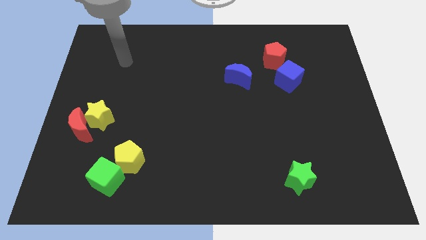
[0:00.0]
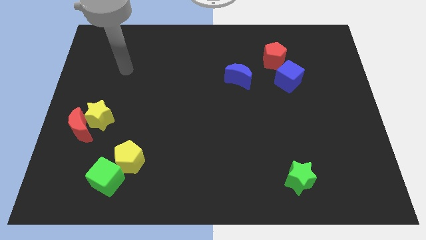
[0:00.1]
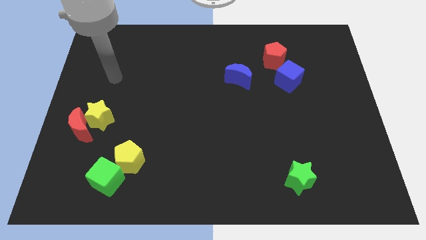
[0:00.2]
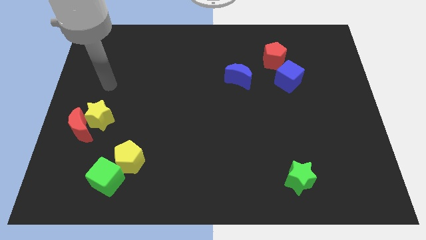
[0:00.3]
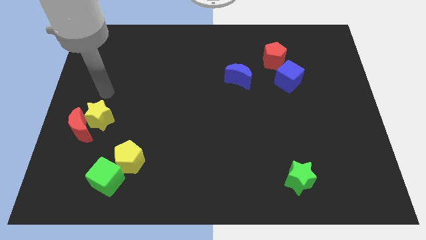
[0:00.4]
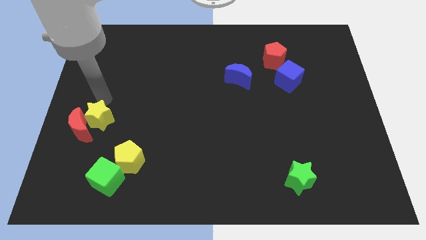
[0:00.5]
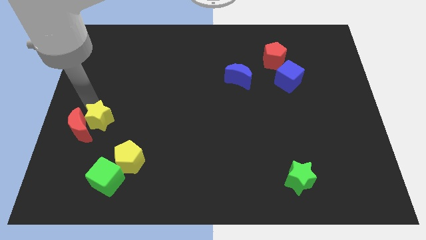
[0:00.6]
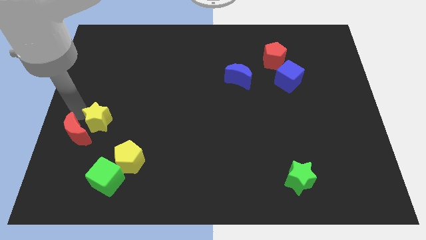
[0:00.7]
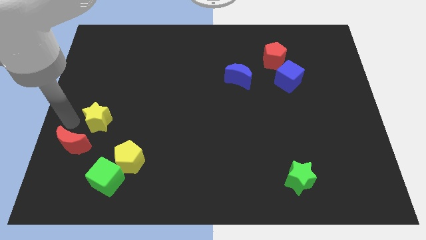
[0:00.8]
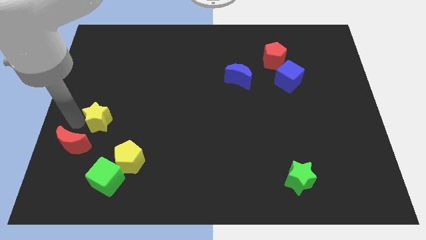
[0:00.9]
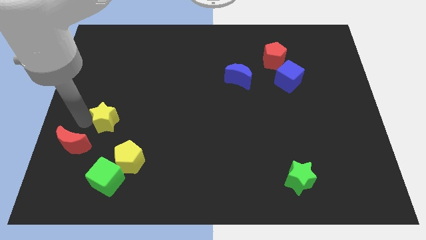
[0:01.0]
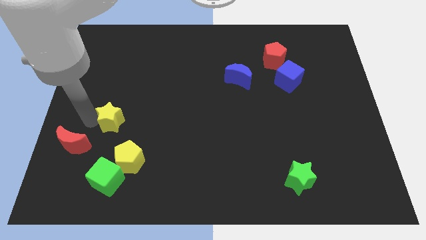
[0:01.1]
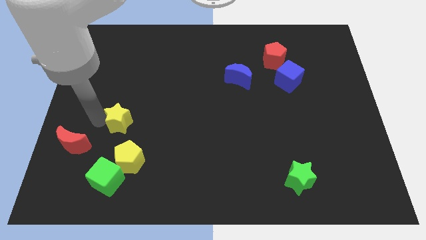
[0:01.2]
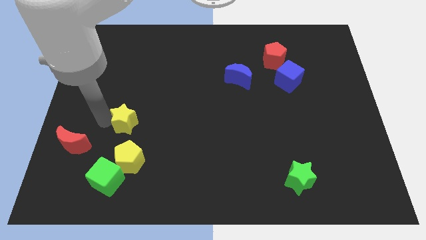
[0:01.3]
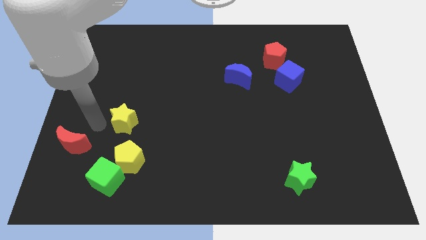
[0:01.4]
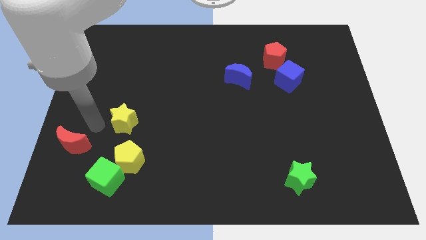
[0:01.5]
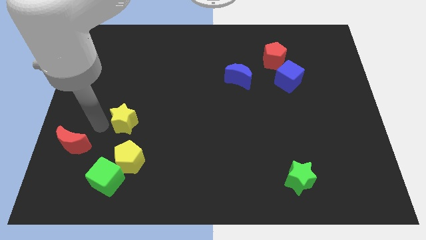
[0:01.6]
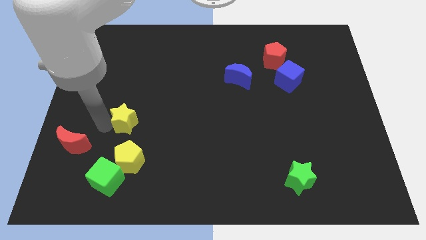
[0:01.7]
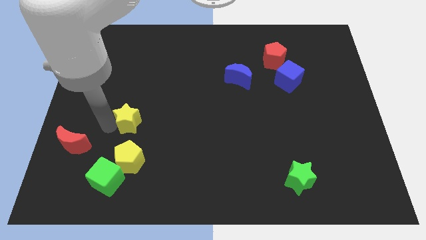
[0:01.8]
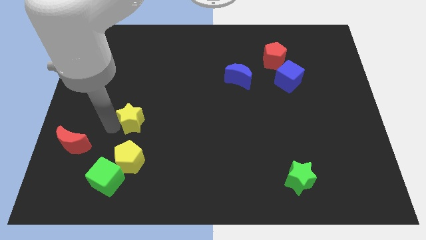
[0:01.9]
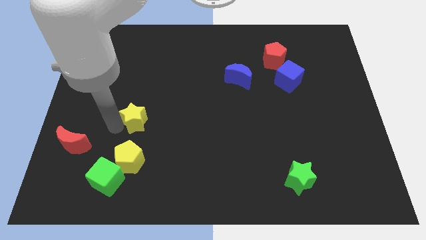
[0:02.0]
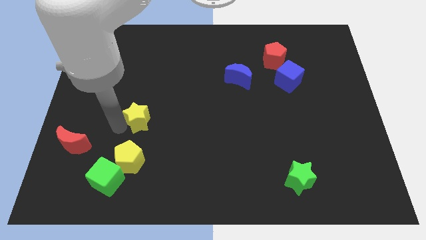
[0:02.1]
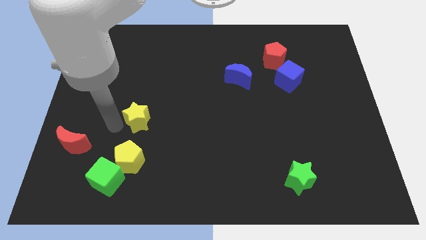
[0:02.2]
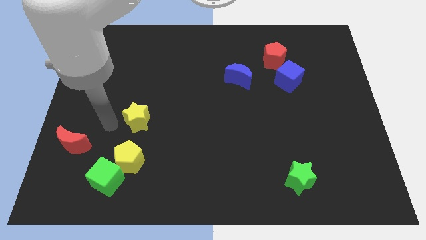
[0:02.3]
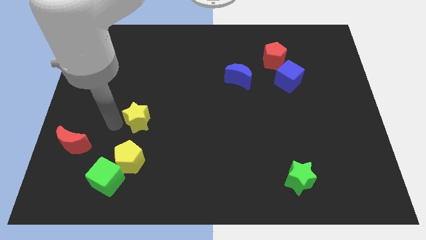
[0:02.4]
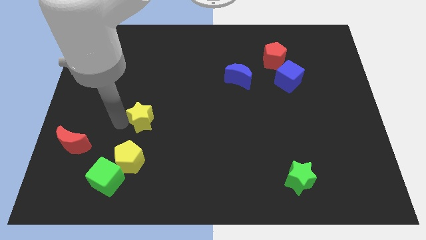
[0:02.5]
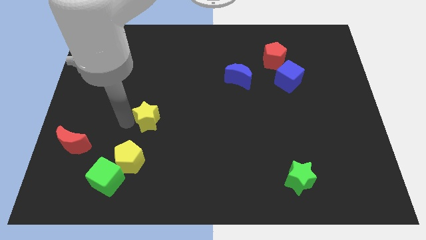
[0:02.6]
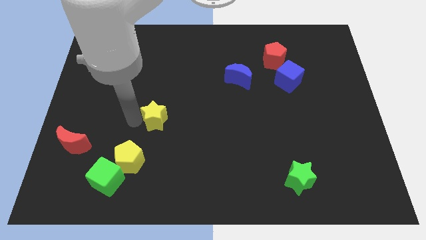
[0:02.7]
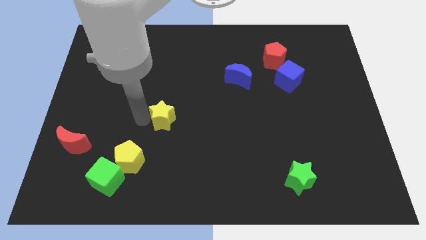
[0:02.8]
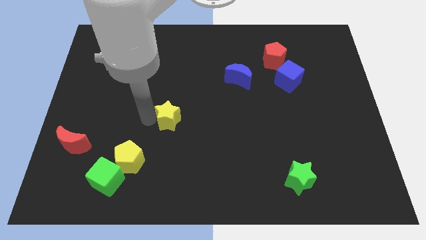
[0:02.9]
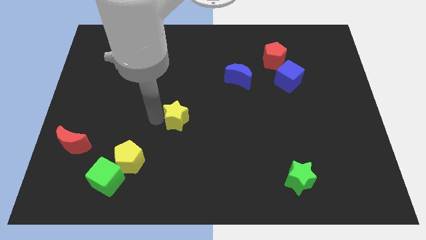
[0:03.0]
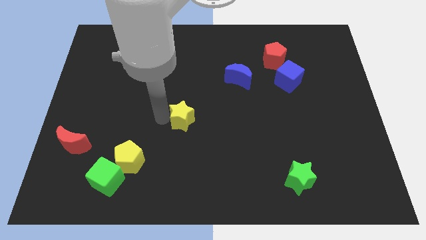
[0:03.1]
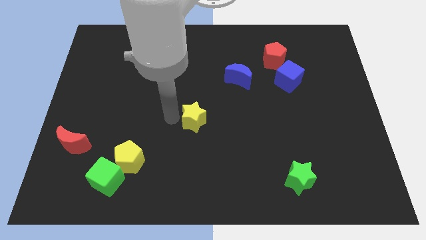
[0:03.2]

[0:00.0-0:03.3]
slide the yellow star right

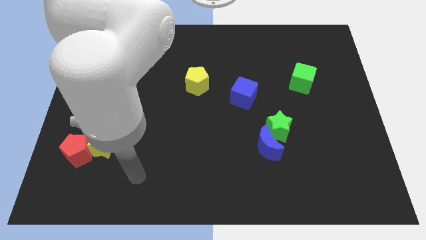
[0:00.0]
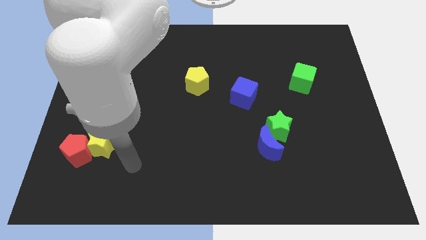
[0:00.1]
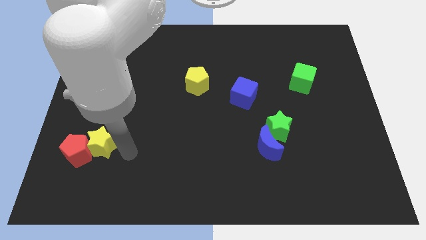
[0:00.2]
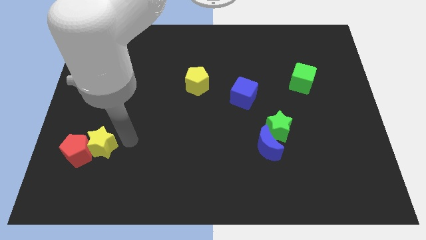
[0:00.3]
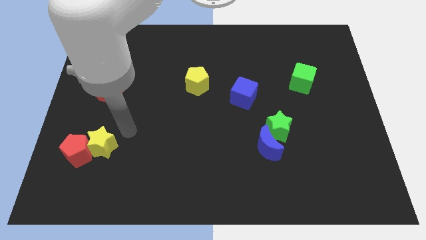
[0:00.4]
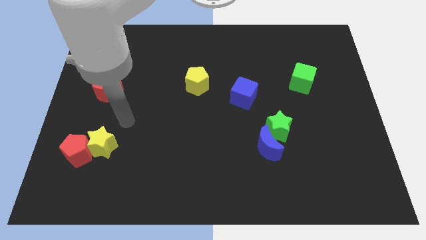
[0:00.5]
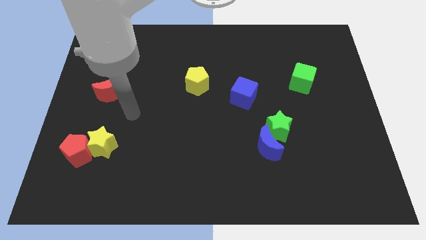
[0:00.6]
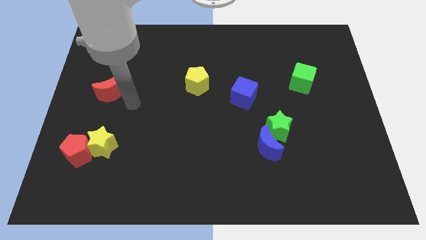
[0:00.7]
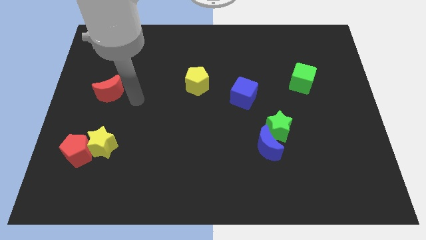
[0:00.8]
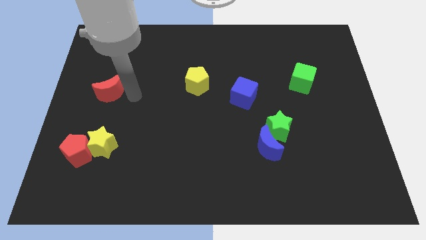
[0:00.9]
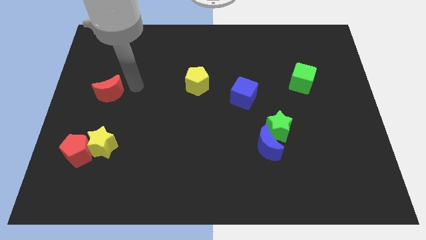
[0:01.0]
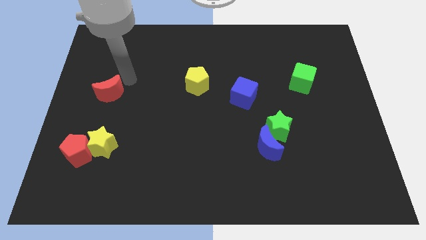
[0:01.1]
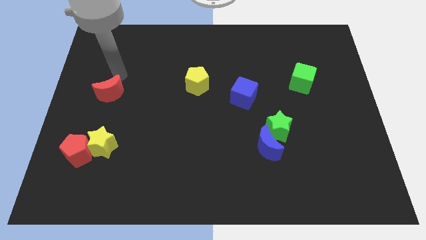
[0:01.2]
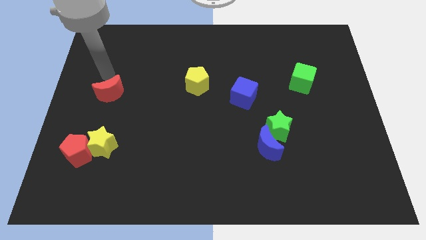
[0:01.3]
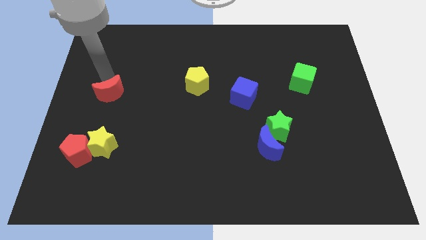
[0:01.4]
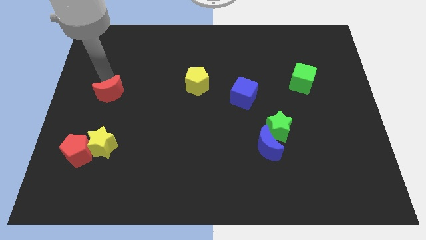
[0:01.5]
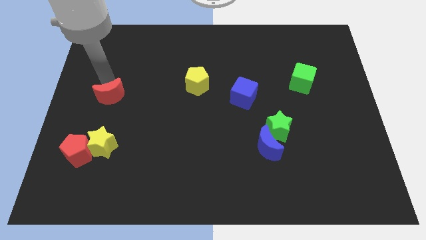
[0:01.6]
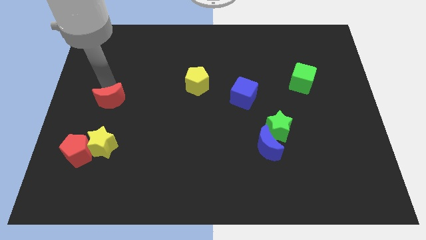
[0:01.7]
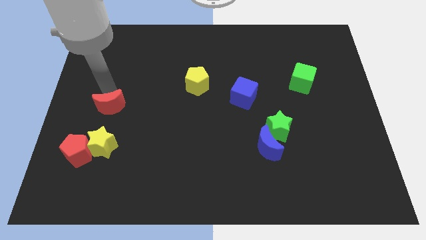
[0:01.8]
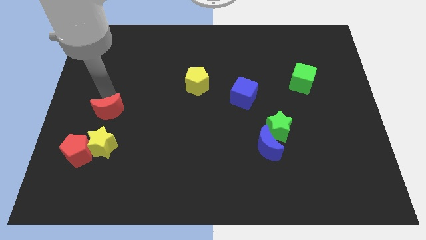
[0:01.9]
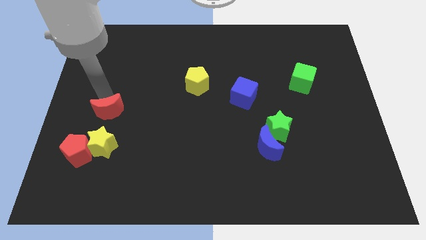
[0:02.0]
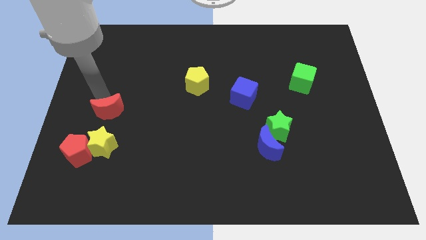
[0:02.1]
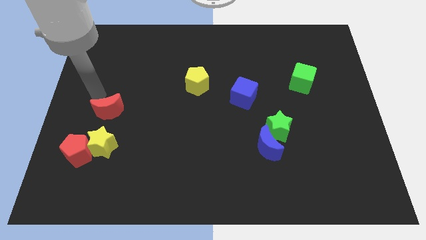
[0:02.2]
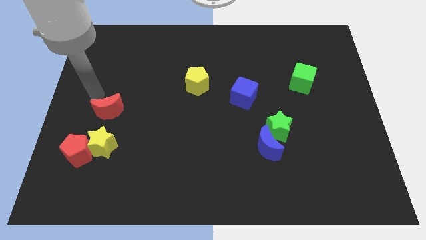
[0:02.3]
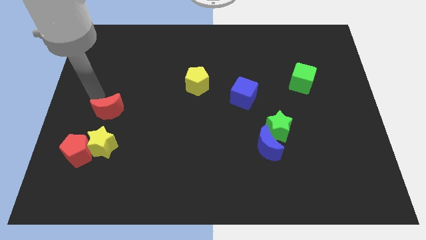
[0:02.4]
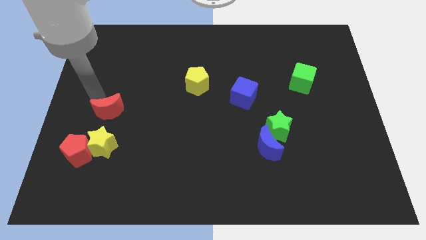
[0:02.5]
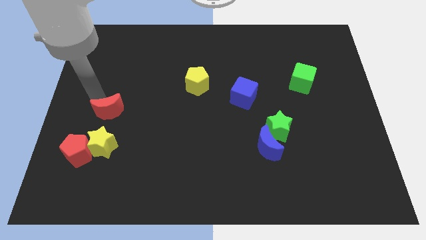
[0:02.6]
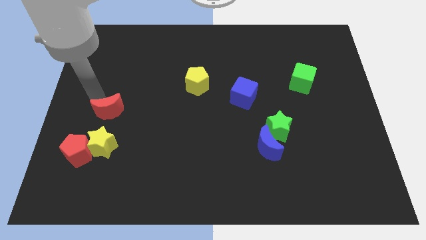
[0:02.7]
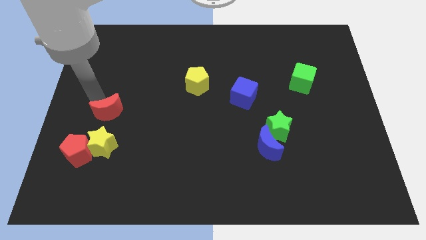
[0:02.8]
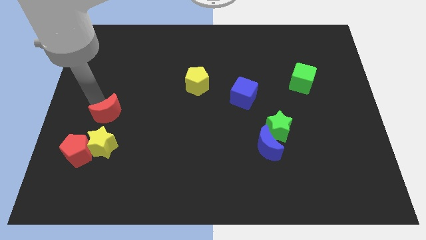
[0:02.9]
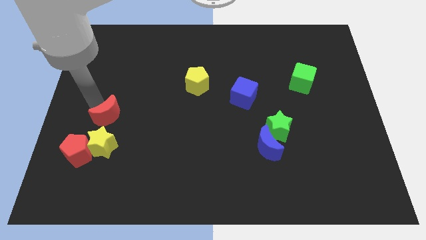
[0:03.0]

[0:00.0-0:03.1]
push the red moon a little bit down

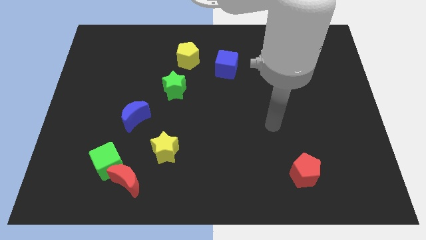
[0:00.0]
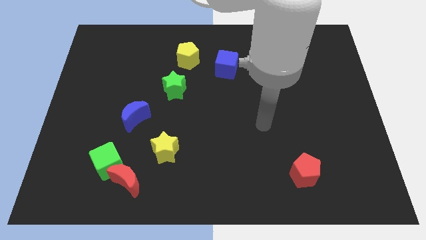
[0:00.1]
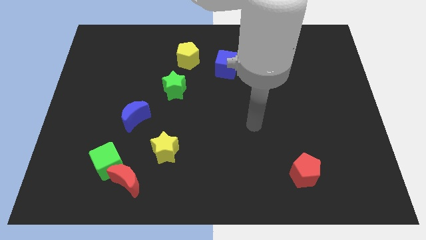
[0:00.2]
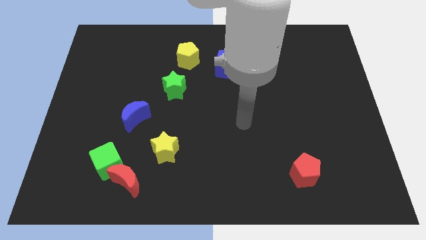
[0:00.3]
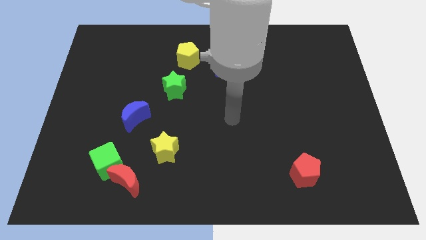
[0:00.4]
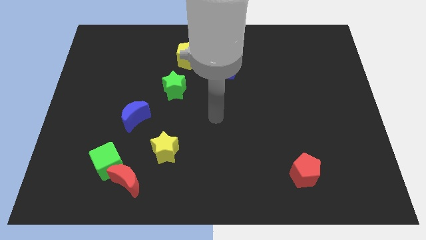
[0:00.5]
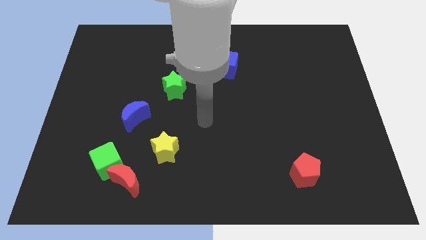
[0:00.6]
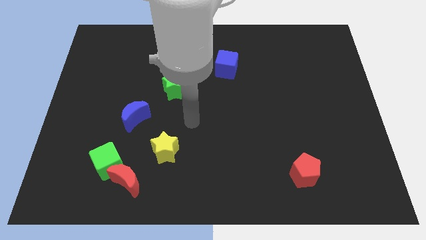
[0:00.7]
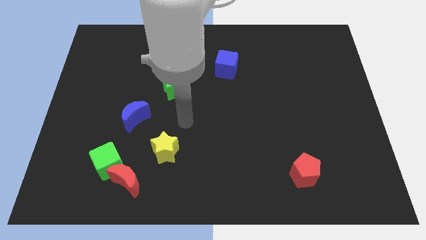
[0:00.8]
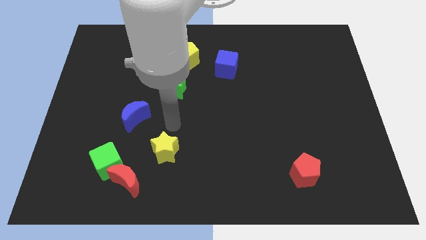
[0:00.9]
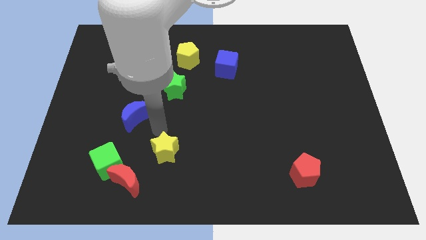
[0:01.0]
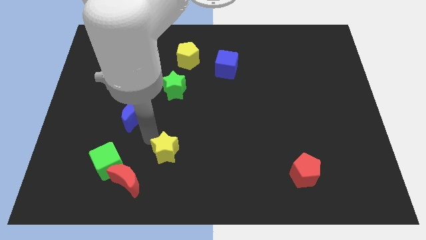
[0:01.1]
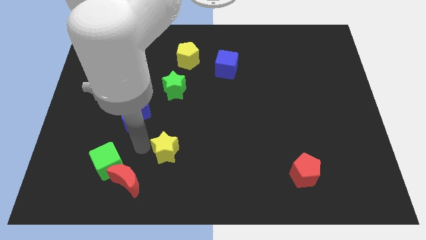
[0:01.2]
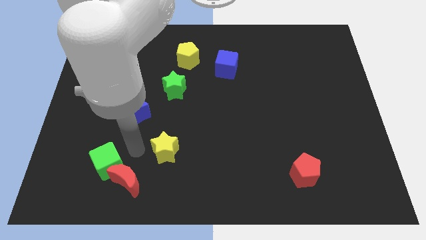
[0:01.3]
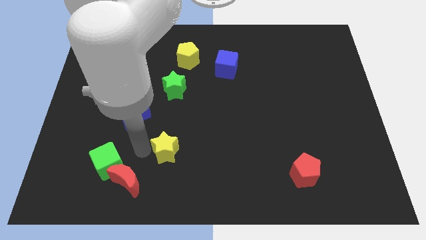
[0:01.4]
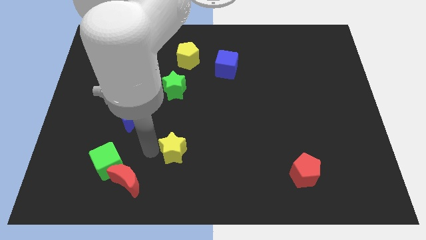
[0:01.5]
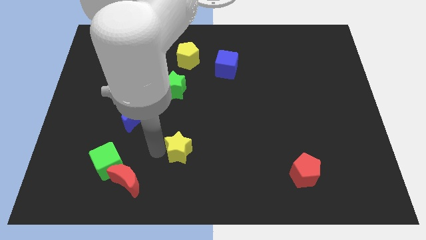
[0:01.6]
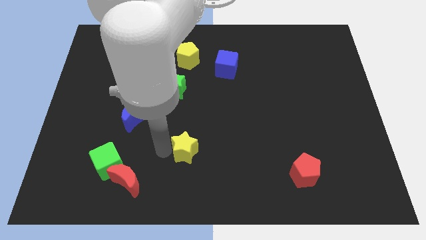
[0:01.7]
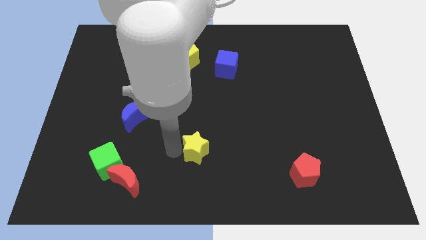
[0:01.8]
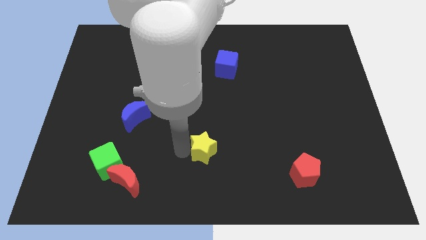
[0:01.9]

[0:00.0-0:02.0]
push the yellow star to the right a little bit
